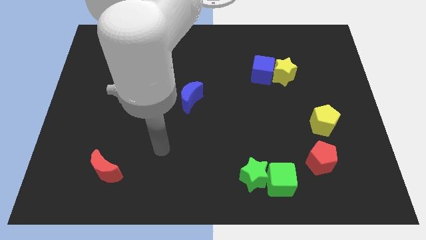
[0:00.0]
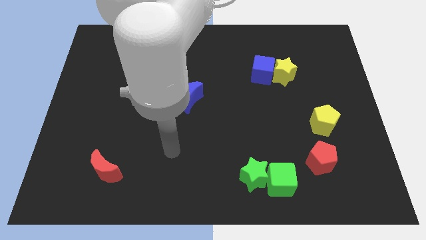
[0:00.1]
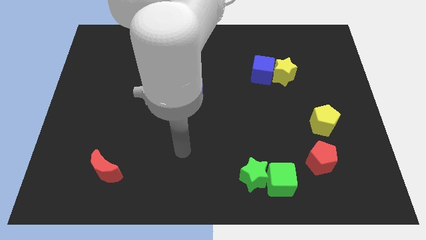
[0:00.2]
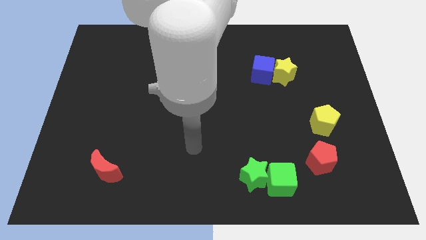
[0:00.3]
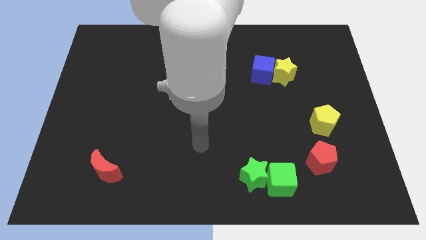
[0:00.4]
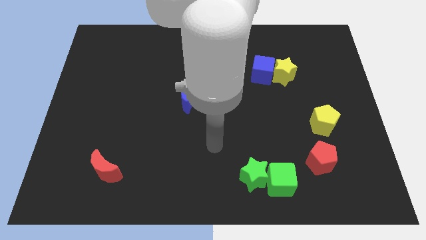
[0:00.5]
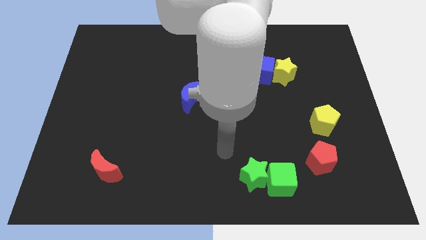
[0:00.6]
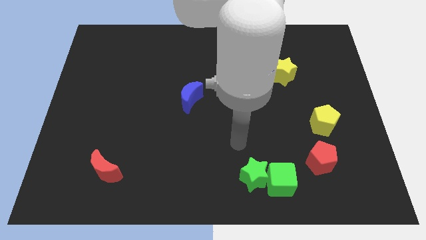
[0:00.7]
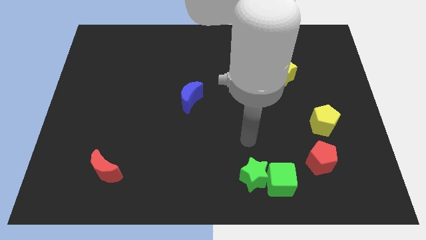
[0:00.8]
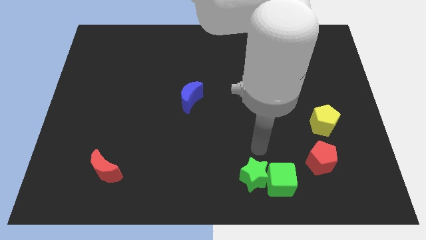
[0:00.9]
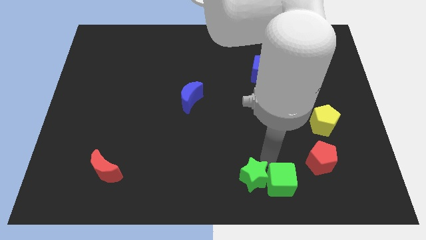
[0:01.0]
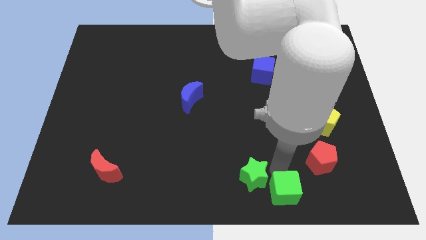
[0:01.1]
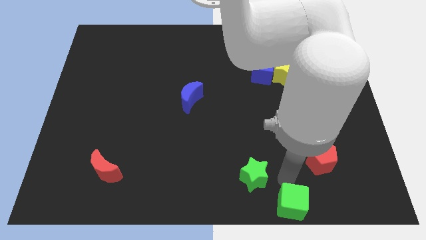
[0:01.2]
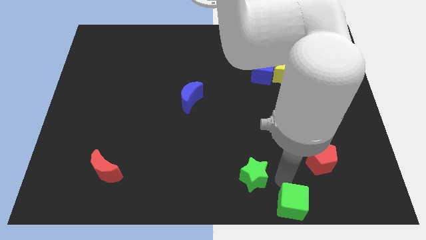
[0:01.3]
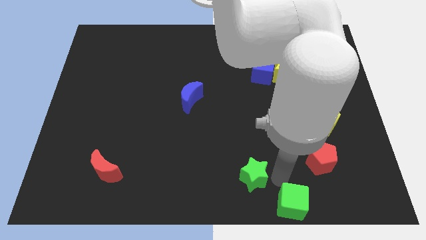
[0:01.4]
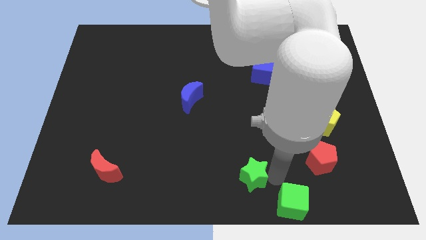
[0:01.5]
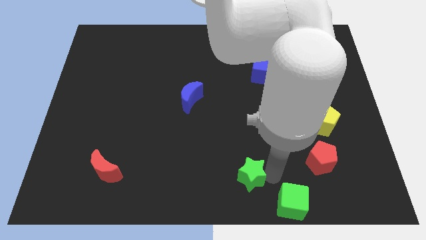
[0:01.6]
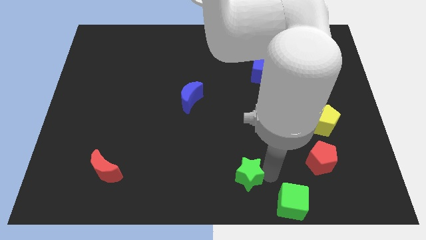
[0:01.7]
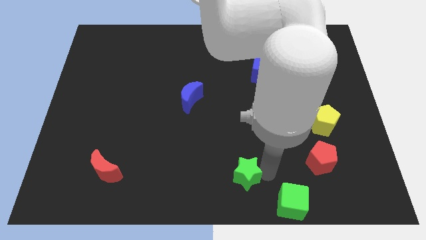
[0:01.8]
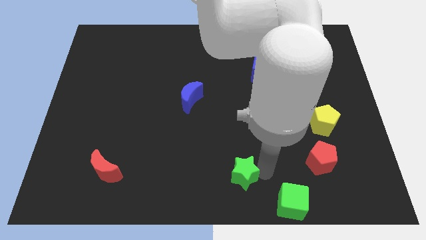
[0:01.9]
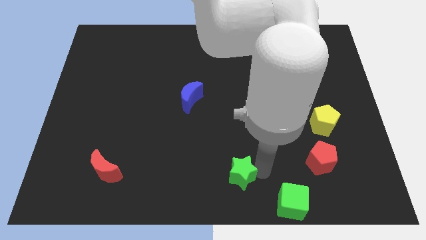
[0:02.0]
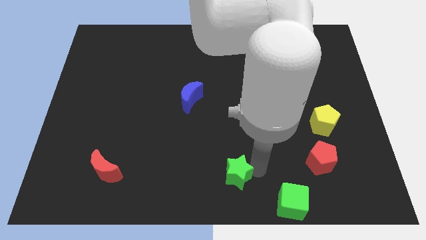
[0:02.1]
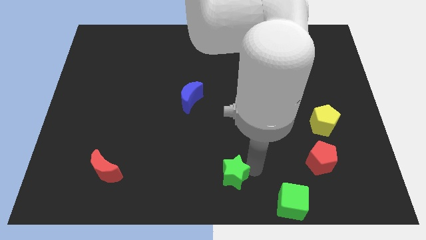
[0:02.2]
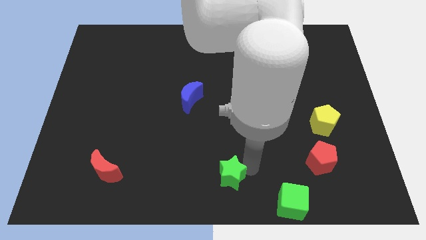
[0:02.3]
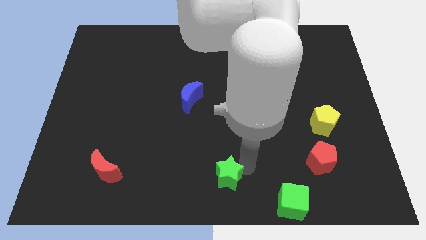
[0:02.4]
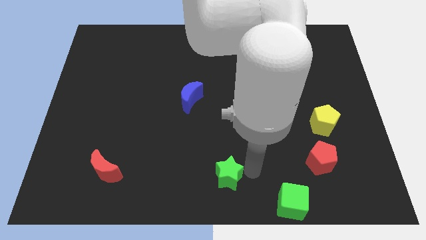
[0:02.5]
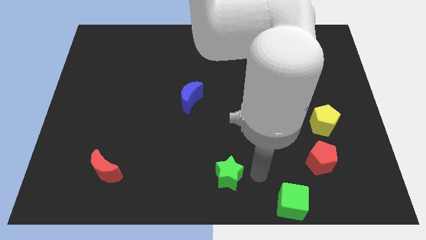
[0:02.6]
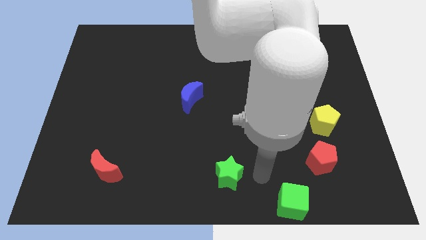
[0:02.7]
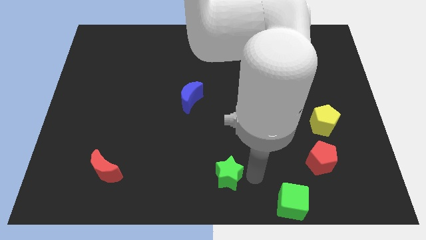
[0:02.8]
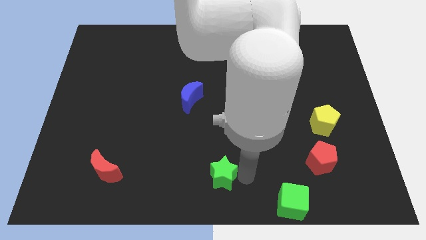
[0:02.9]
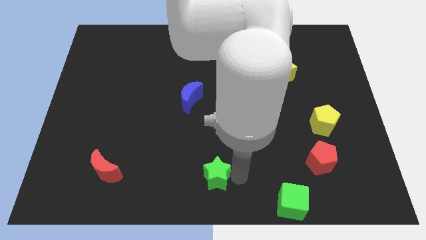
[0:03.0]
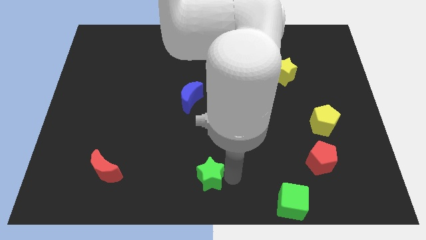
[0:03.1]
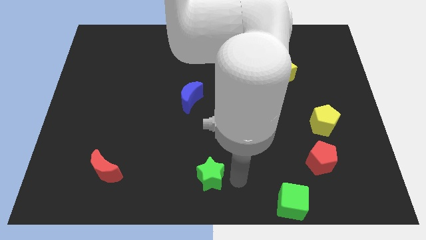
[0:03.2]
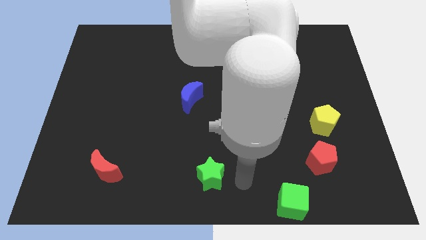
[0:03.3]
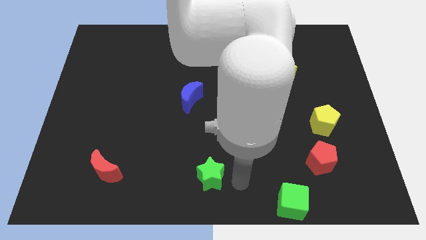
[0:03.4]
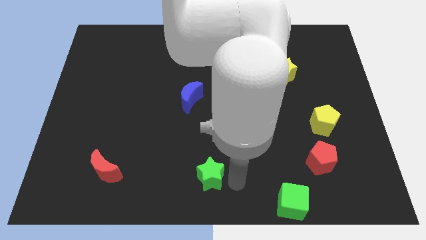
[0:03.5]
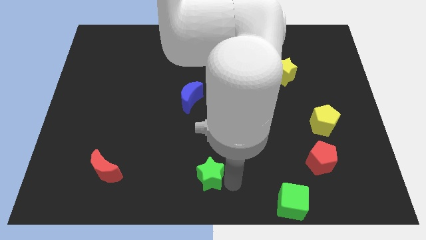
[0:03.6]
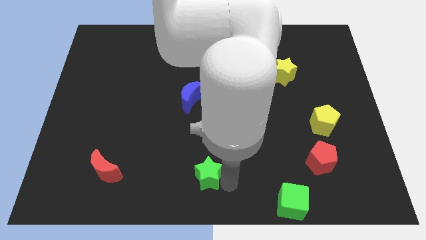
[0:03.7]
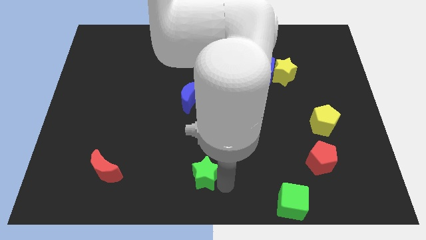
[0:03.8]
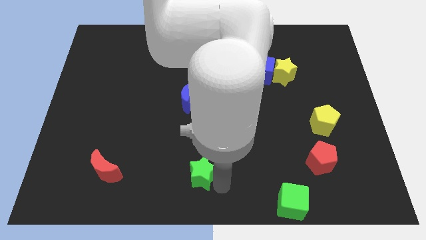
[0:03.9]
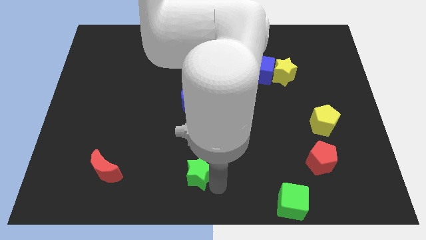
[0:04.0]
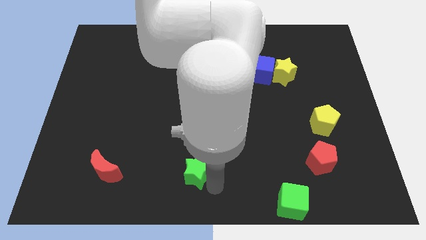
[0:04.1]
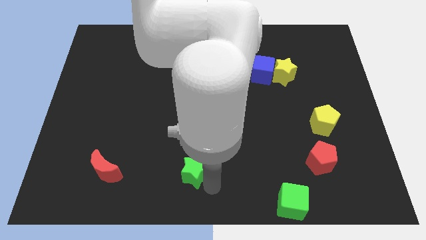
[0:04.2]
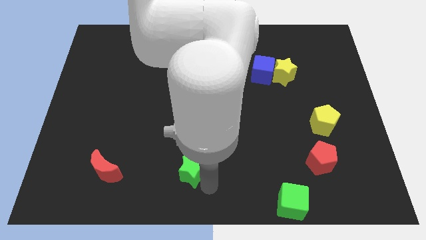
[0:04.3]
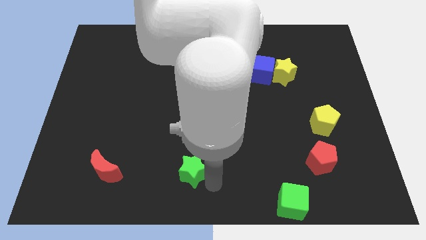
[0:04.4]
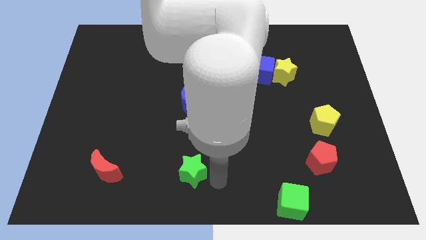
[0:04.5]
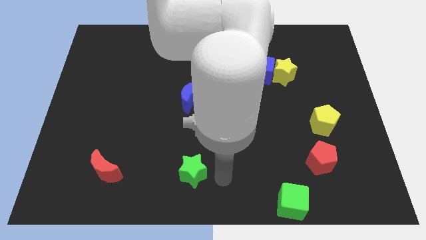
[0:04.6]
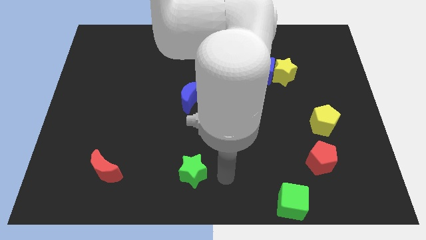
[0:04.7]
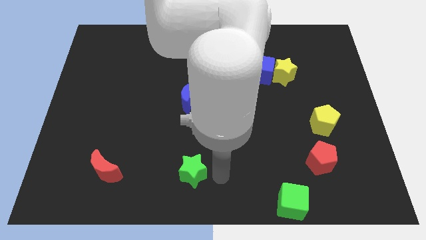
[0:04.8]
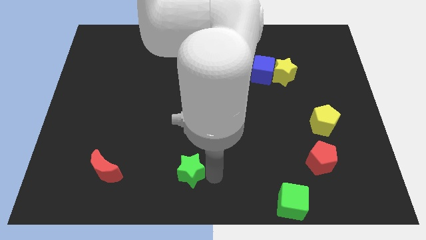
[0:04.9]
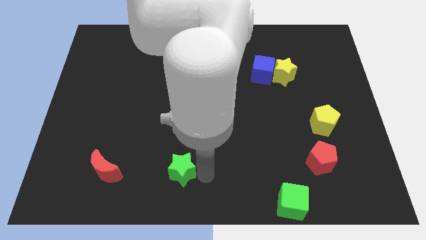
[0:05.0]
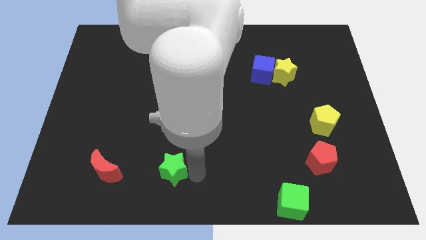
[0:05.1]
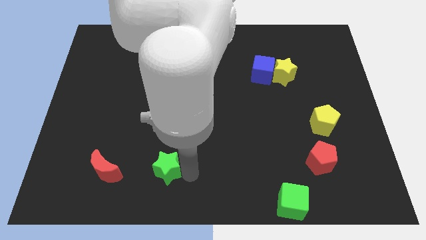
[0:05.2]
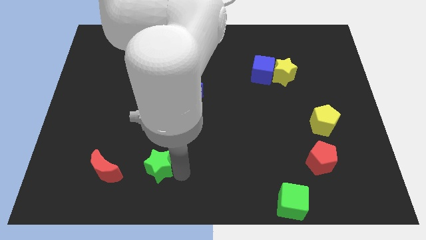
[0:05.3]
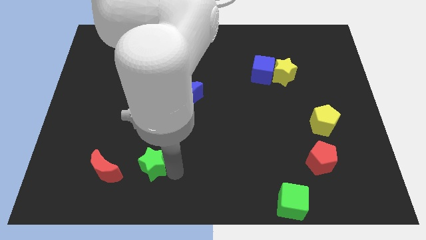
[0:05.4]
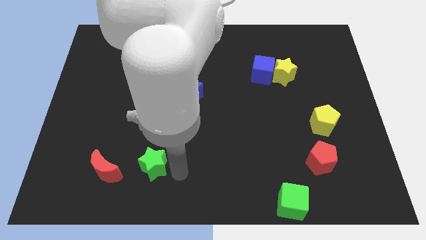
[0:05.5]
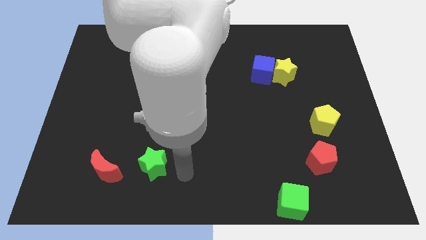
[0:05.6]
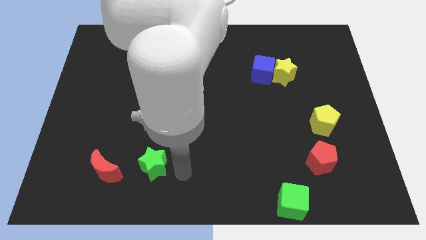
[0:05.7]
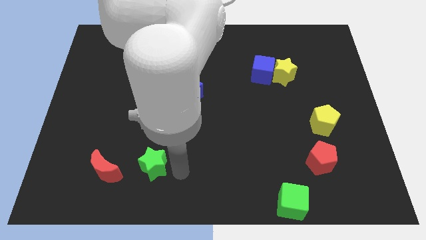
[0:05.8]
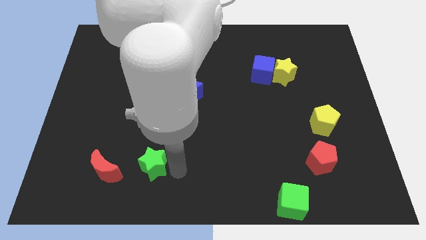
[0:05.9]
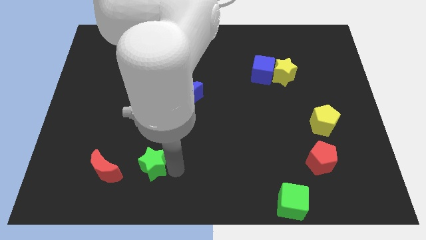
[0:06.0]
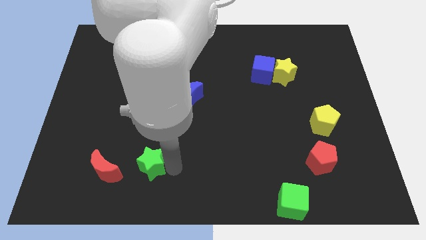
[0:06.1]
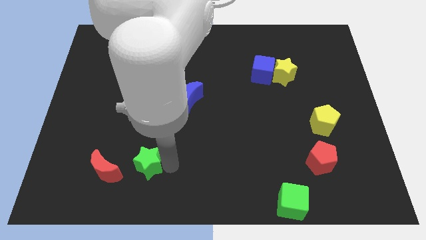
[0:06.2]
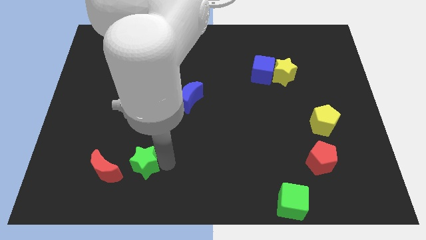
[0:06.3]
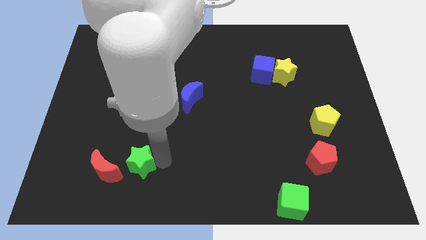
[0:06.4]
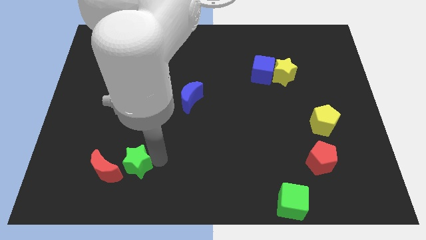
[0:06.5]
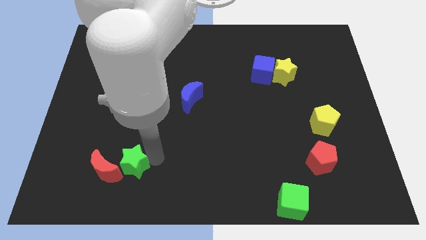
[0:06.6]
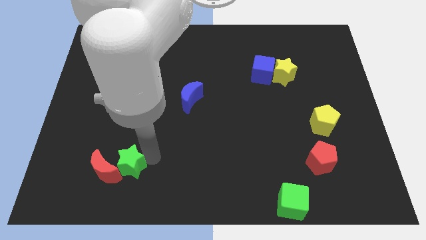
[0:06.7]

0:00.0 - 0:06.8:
move the green star close to the red moon

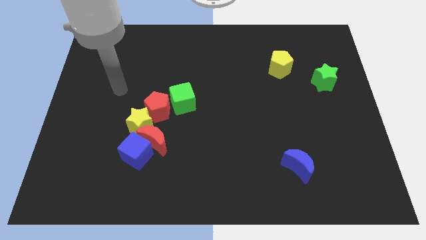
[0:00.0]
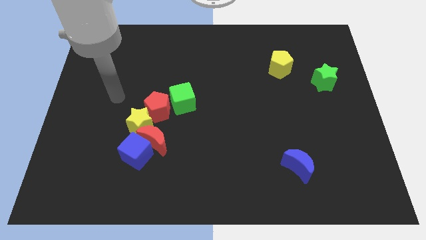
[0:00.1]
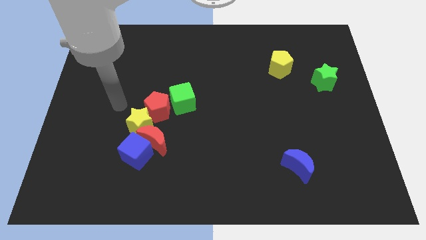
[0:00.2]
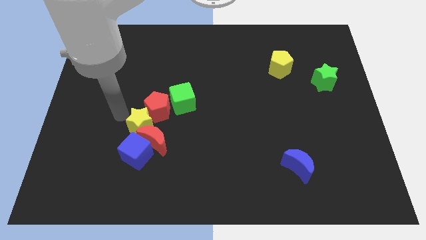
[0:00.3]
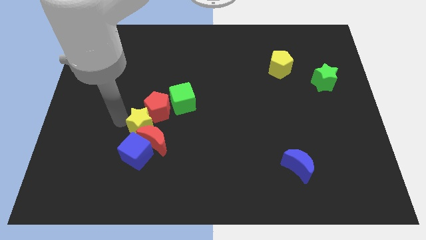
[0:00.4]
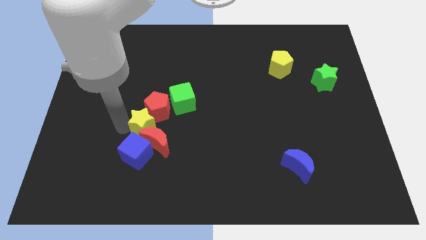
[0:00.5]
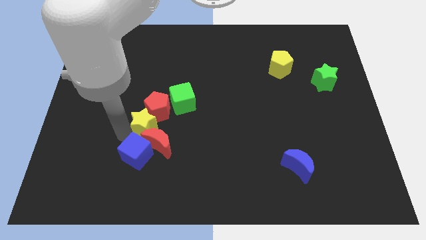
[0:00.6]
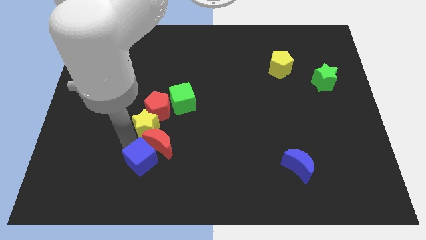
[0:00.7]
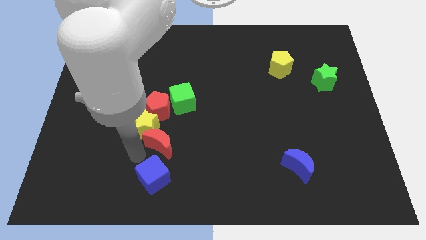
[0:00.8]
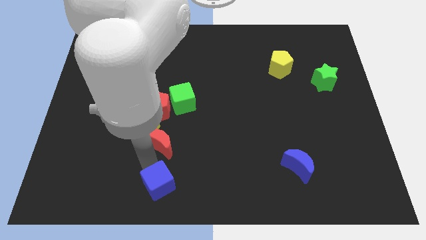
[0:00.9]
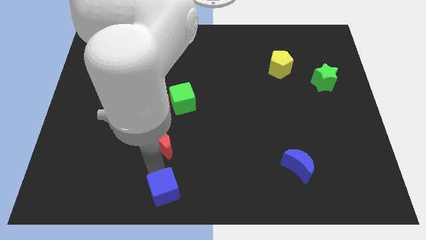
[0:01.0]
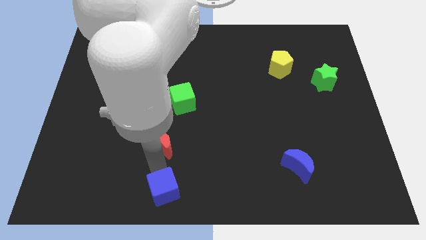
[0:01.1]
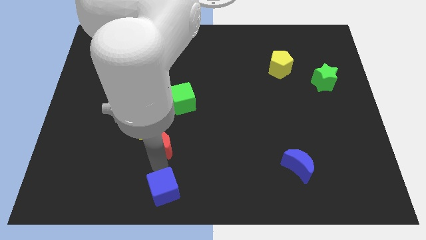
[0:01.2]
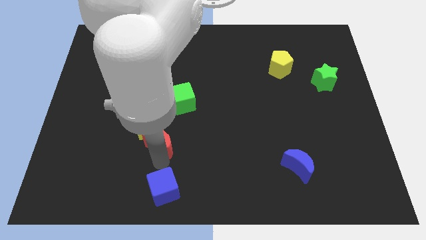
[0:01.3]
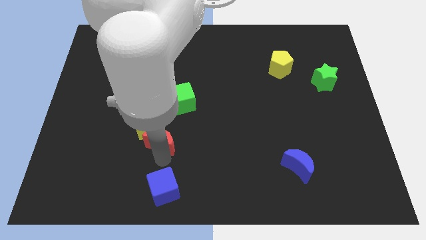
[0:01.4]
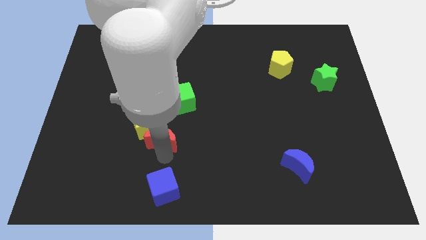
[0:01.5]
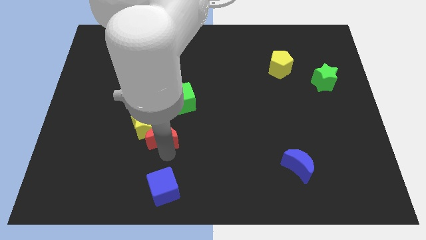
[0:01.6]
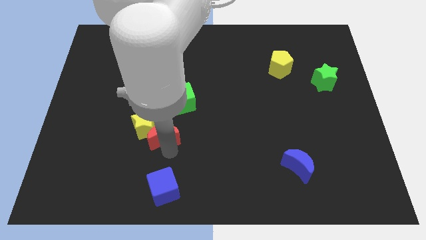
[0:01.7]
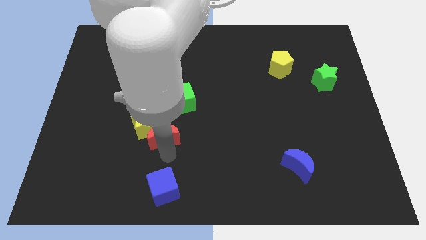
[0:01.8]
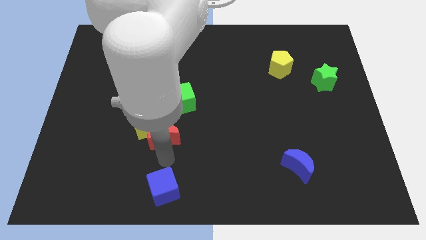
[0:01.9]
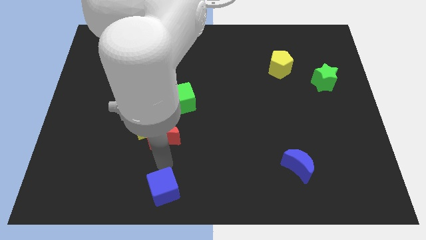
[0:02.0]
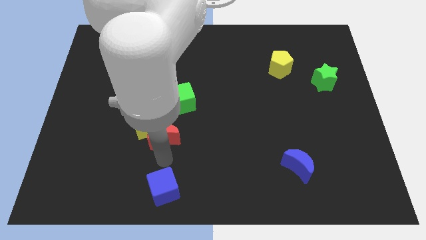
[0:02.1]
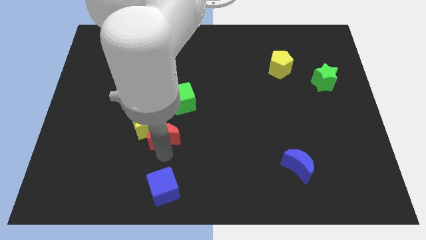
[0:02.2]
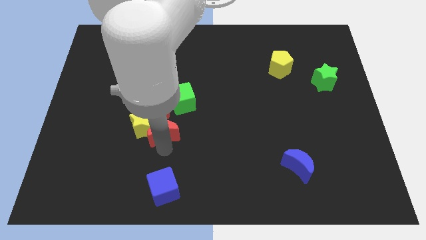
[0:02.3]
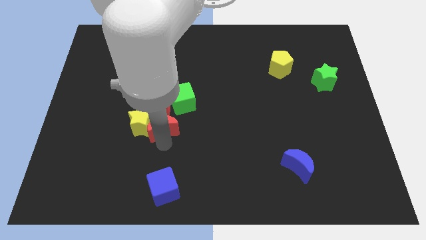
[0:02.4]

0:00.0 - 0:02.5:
slide the red moon close to the red pentagon
